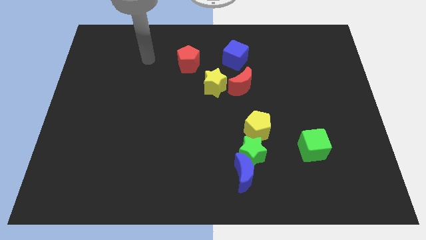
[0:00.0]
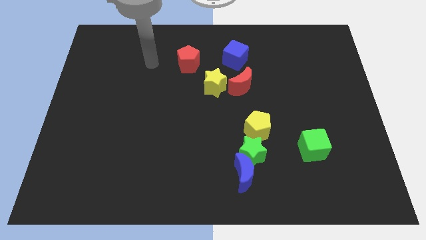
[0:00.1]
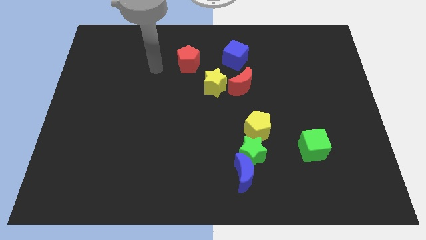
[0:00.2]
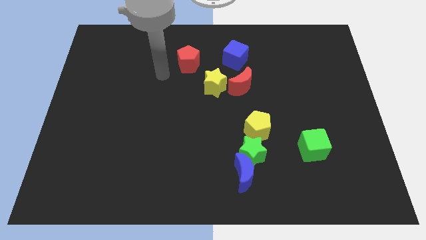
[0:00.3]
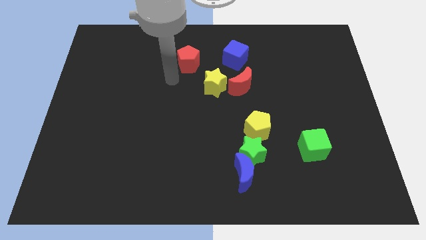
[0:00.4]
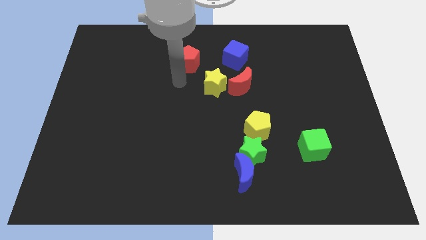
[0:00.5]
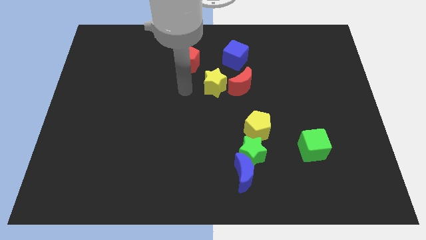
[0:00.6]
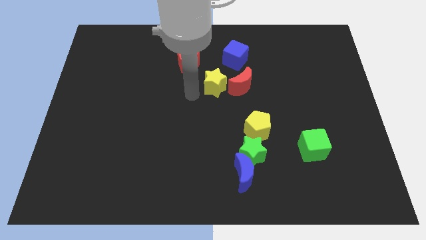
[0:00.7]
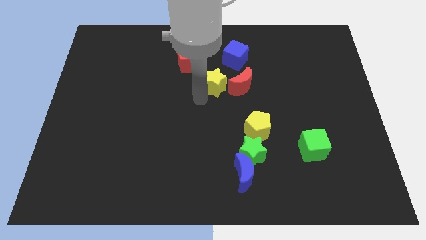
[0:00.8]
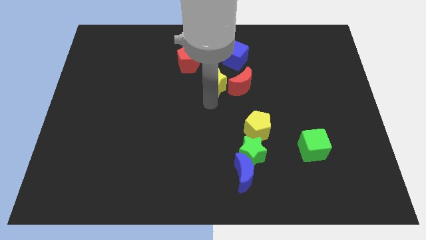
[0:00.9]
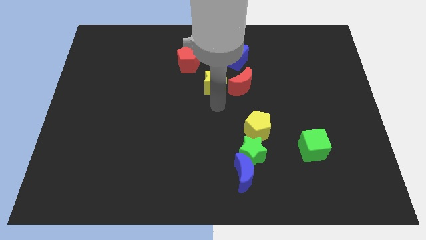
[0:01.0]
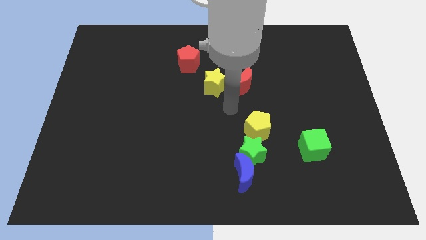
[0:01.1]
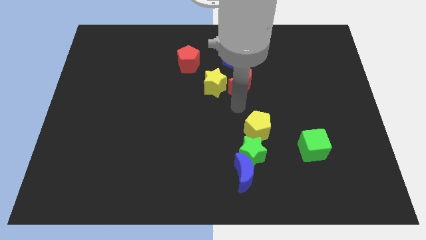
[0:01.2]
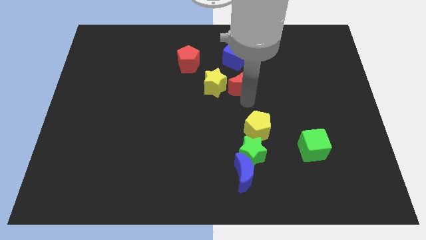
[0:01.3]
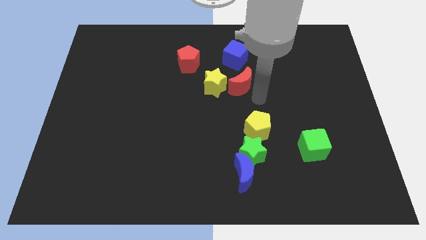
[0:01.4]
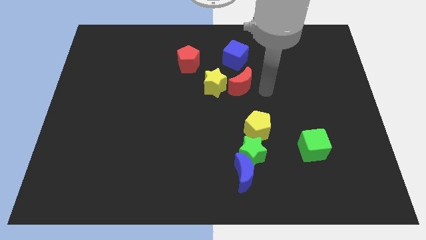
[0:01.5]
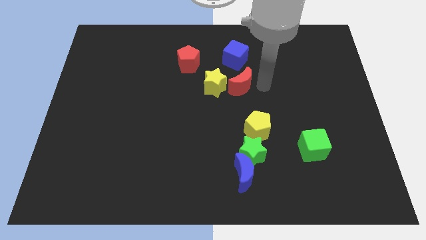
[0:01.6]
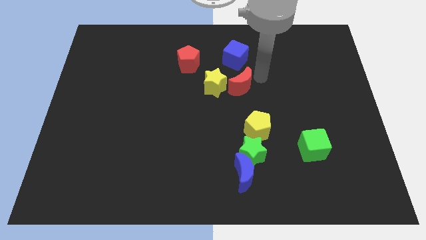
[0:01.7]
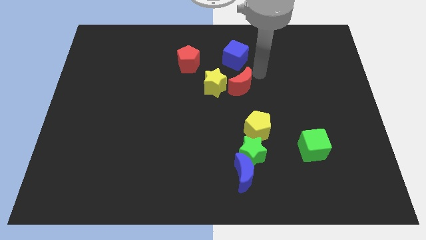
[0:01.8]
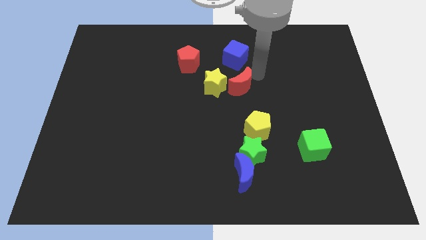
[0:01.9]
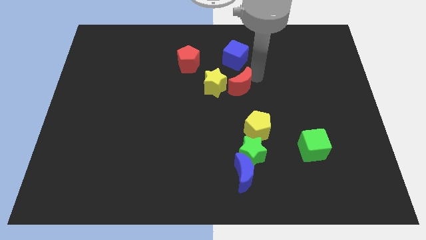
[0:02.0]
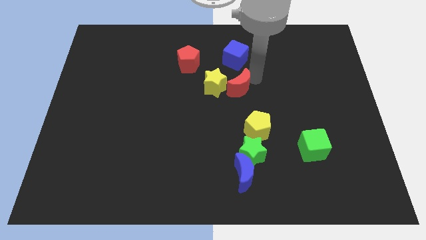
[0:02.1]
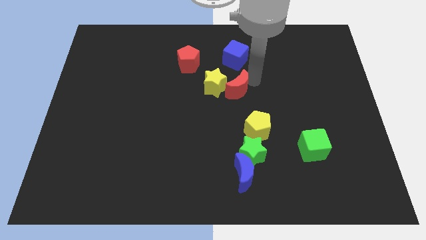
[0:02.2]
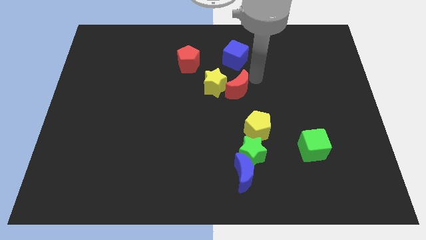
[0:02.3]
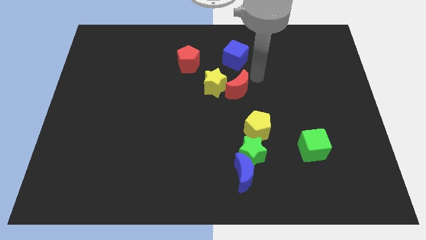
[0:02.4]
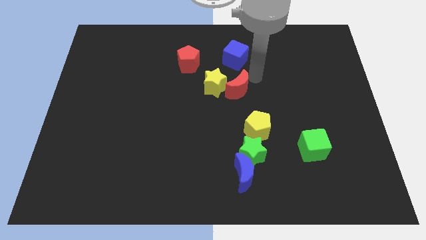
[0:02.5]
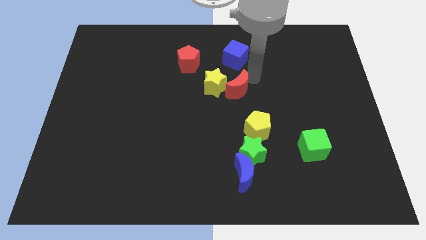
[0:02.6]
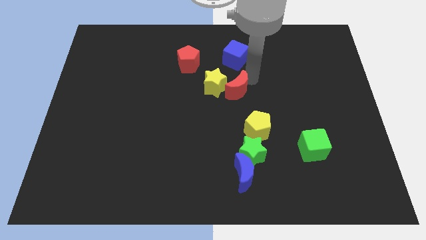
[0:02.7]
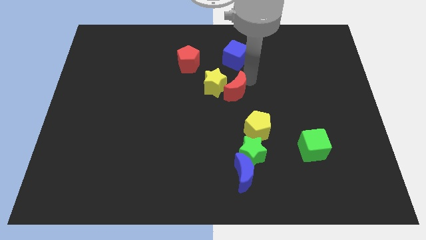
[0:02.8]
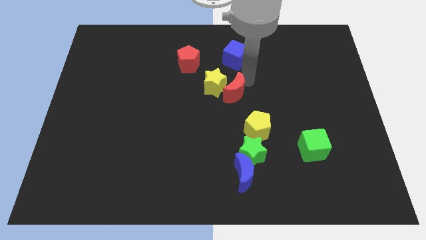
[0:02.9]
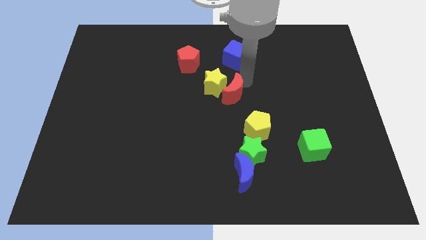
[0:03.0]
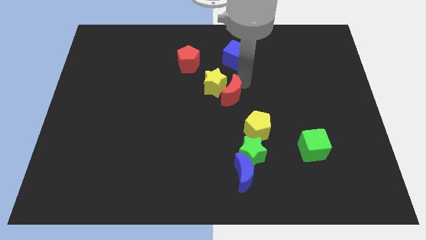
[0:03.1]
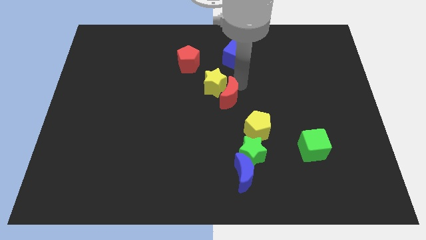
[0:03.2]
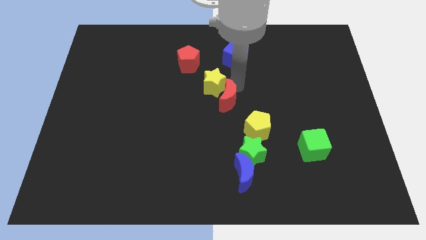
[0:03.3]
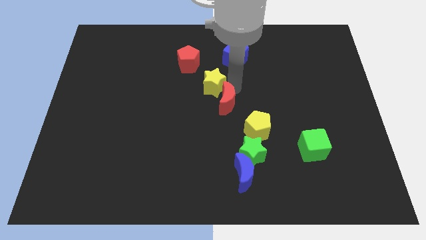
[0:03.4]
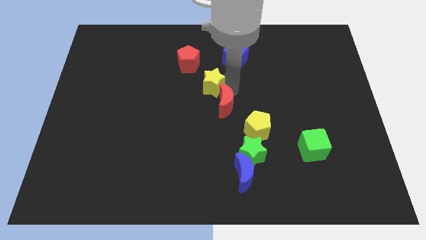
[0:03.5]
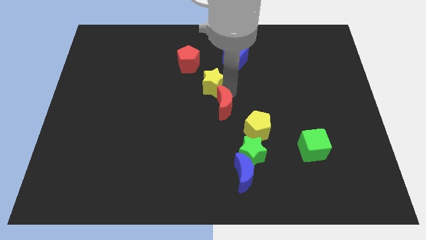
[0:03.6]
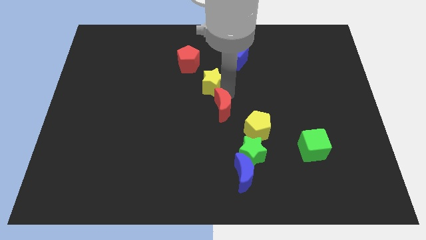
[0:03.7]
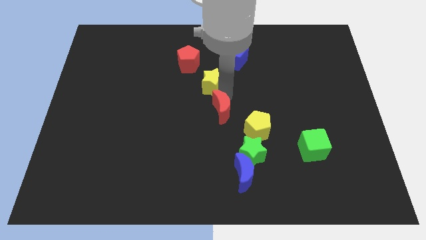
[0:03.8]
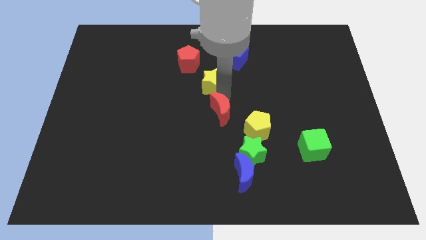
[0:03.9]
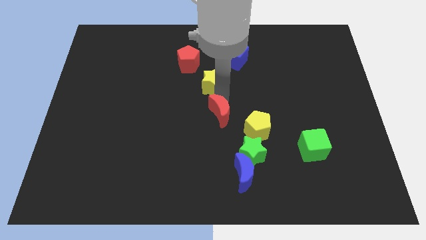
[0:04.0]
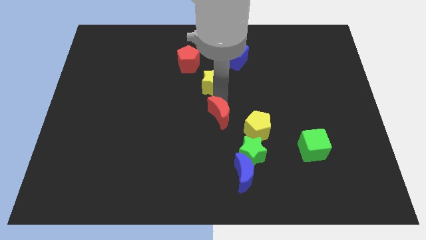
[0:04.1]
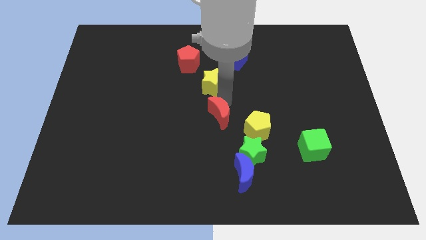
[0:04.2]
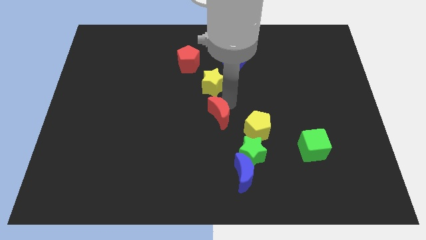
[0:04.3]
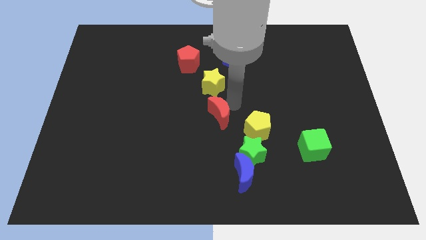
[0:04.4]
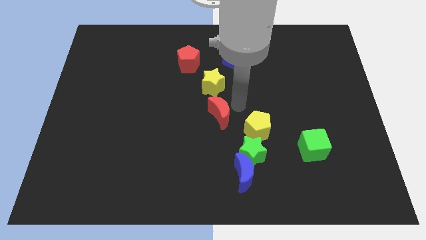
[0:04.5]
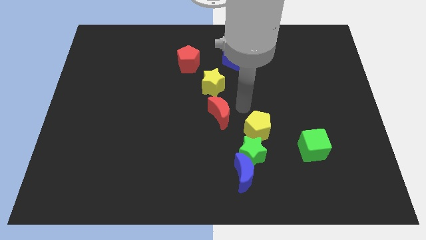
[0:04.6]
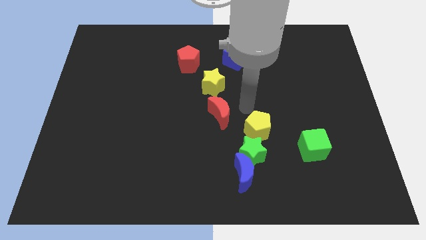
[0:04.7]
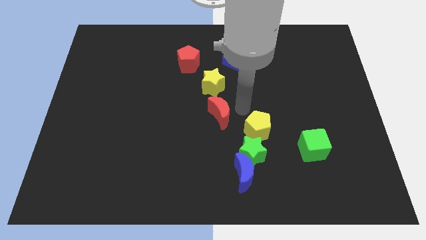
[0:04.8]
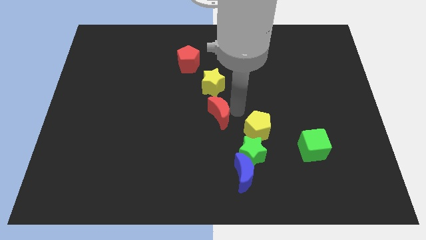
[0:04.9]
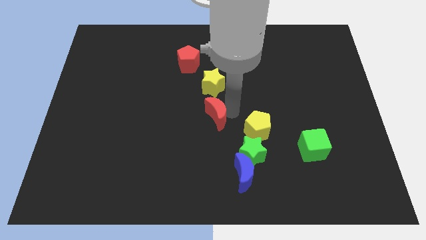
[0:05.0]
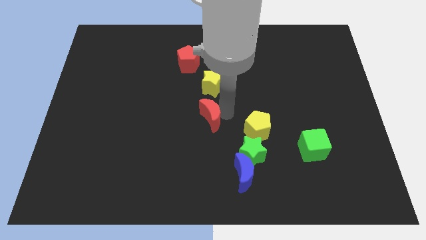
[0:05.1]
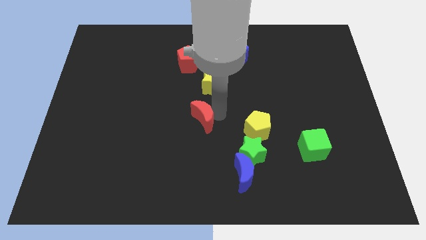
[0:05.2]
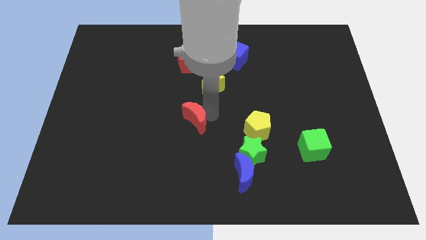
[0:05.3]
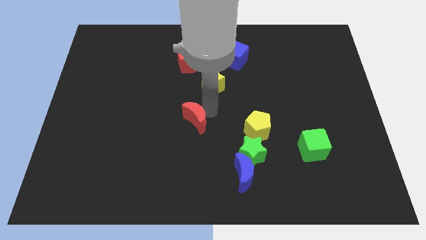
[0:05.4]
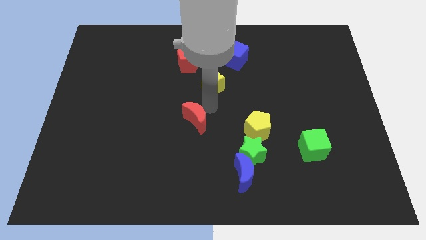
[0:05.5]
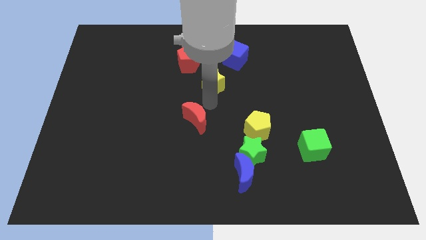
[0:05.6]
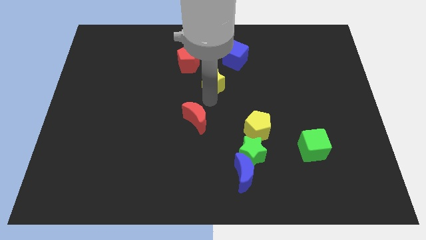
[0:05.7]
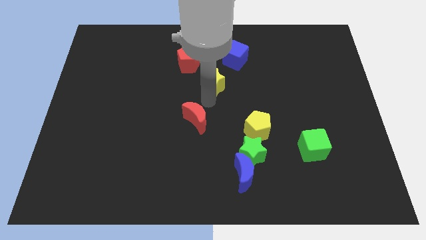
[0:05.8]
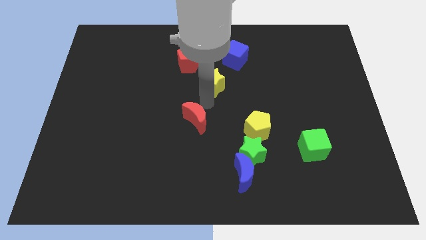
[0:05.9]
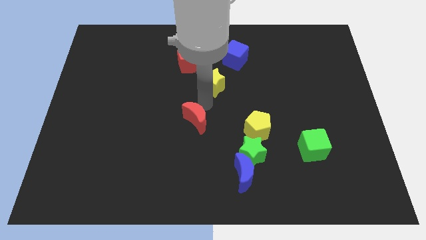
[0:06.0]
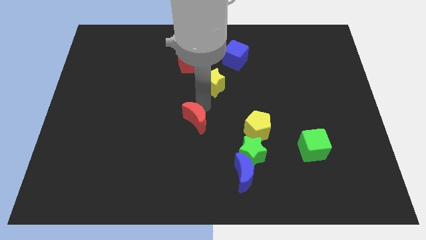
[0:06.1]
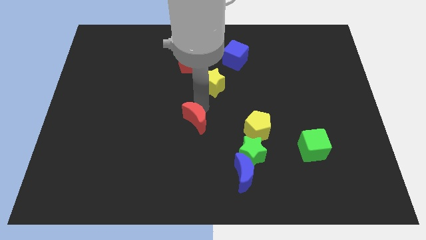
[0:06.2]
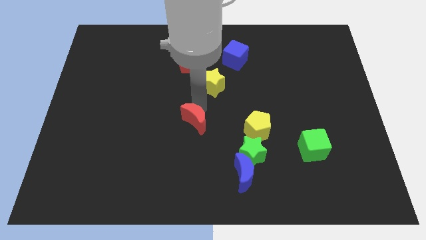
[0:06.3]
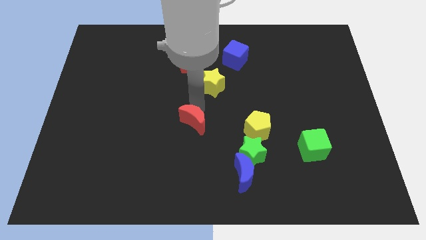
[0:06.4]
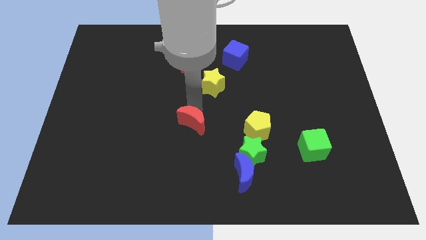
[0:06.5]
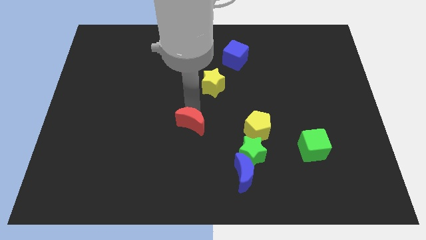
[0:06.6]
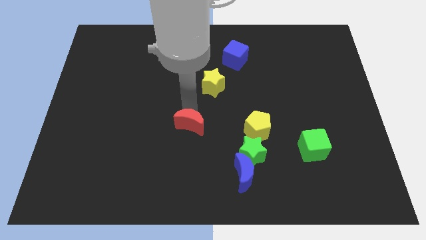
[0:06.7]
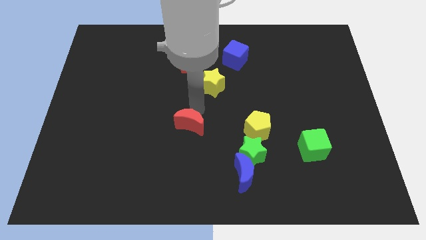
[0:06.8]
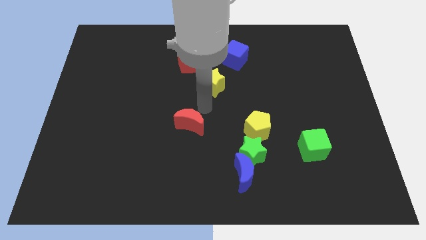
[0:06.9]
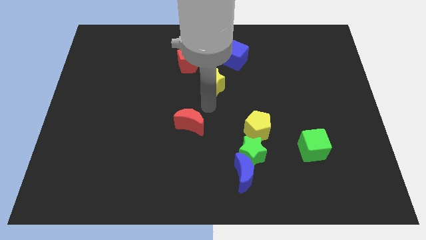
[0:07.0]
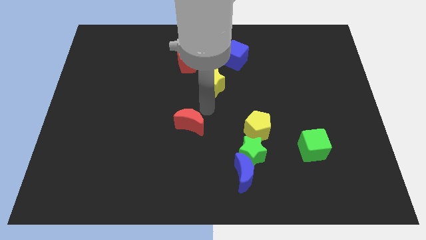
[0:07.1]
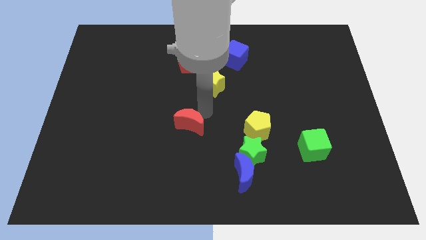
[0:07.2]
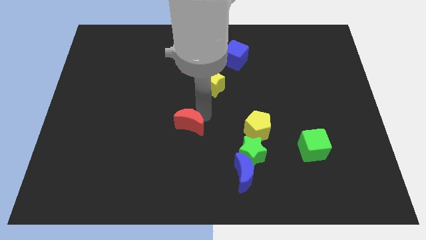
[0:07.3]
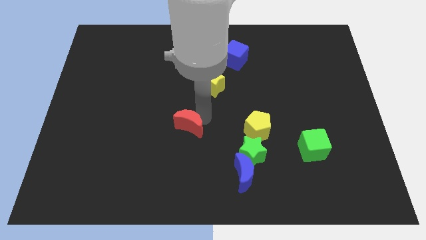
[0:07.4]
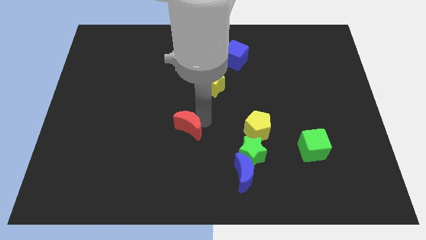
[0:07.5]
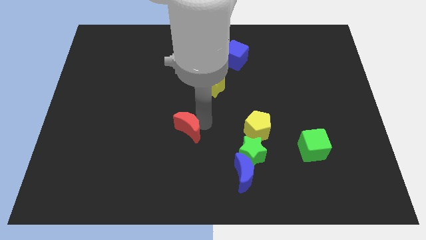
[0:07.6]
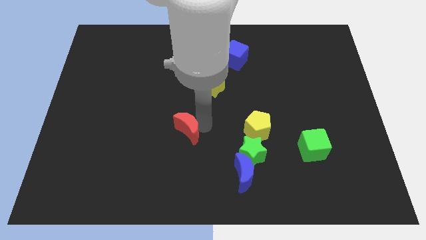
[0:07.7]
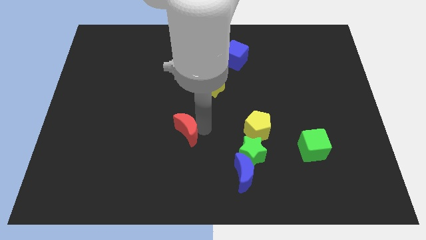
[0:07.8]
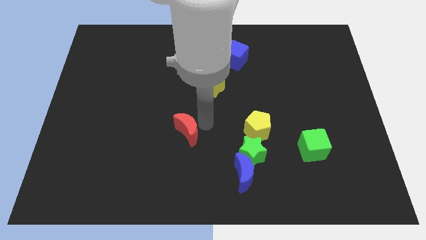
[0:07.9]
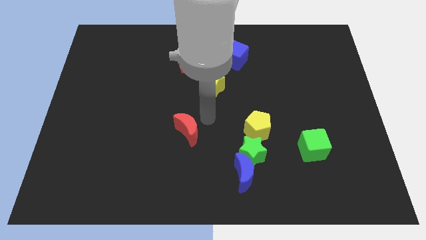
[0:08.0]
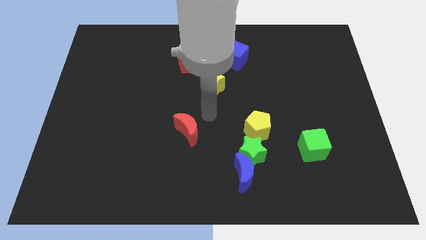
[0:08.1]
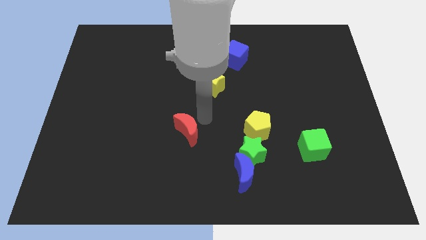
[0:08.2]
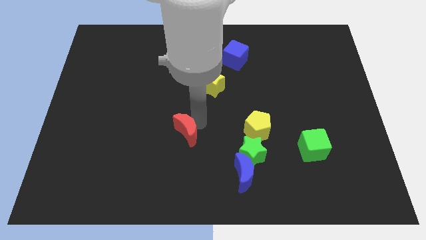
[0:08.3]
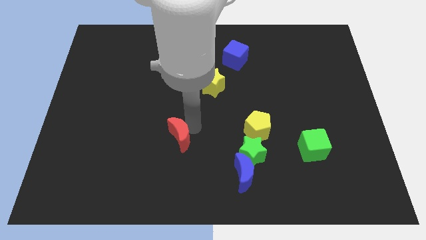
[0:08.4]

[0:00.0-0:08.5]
push the red moon down and then left
